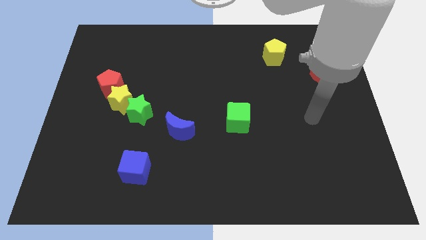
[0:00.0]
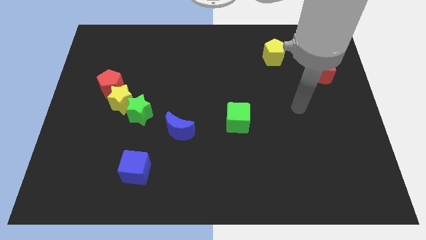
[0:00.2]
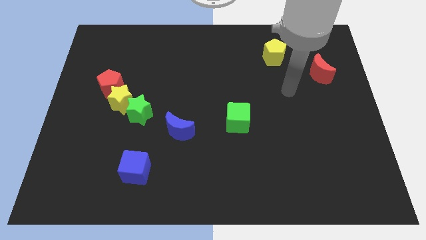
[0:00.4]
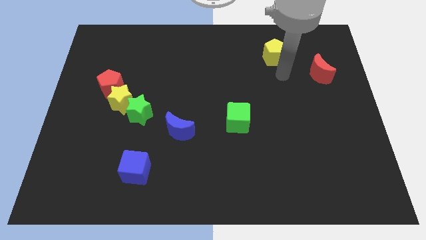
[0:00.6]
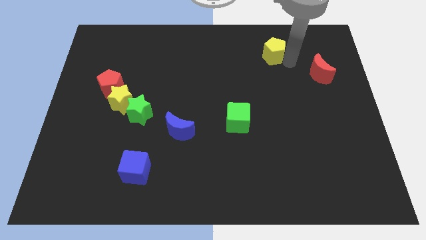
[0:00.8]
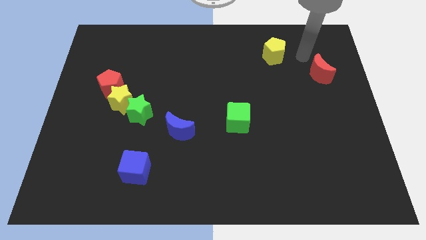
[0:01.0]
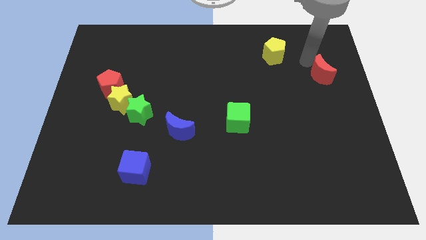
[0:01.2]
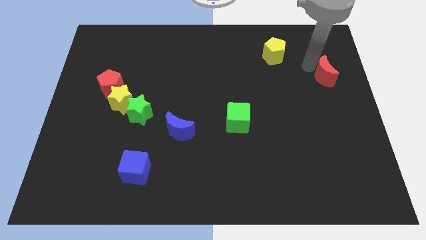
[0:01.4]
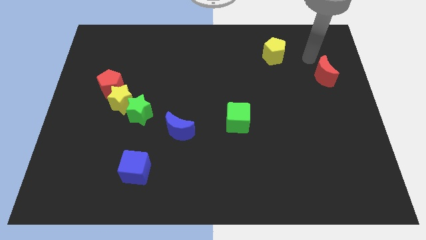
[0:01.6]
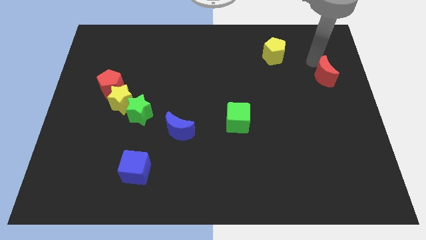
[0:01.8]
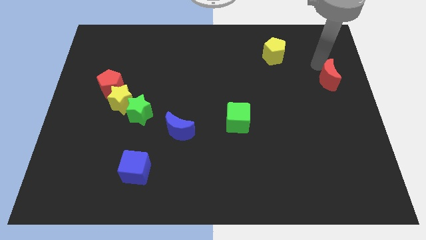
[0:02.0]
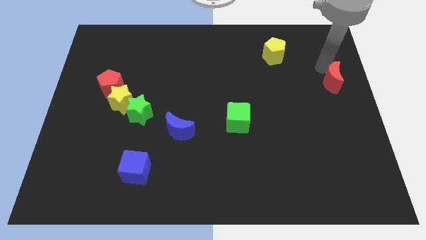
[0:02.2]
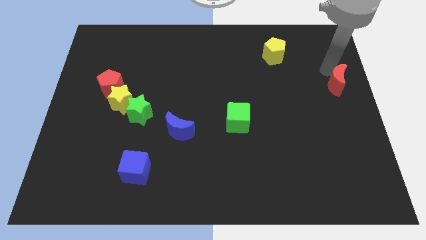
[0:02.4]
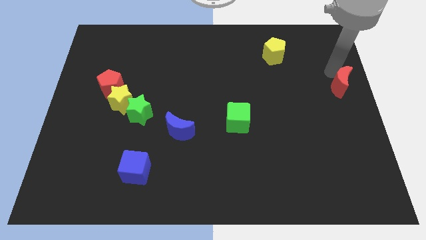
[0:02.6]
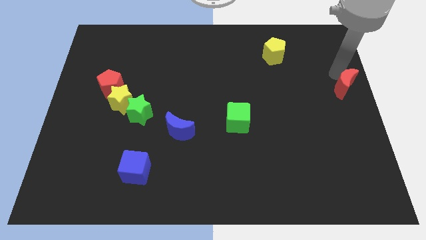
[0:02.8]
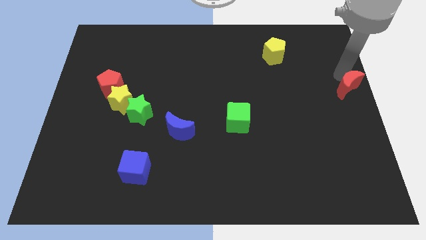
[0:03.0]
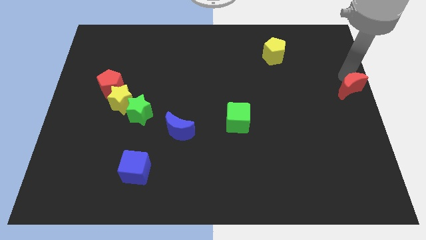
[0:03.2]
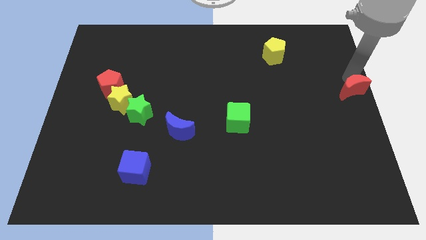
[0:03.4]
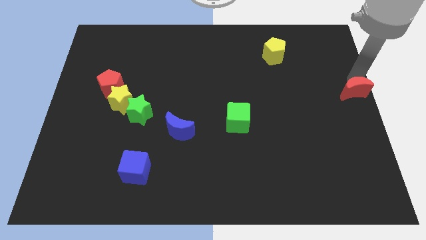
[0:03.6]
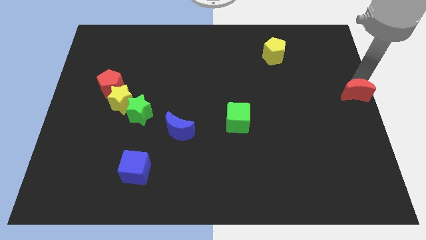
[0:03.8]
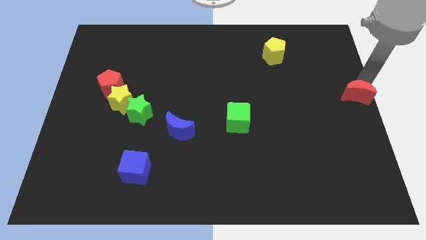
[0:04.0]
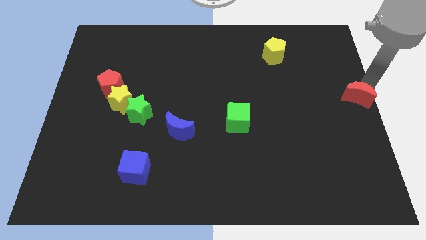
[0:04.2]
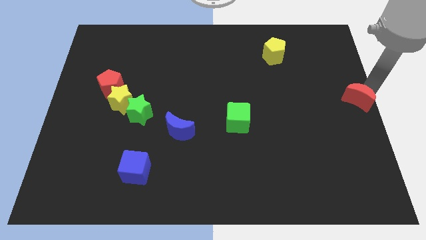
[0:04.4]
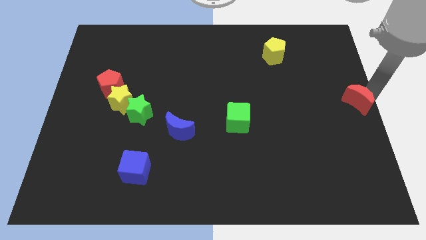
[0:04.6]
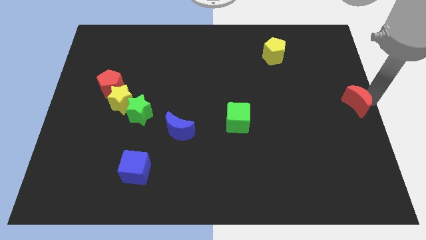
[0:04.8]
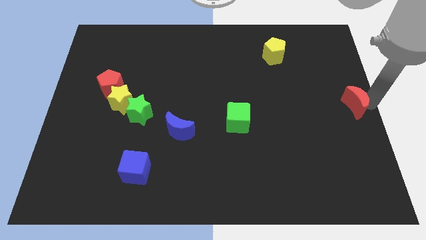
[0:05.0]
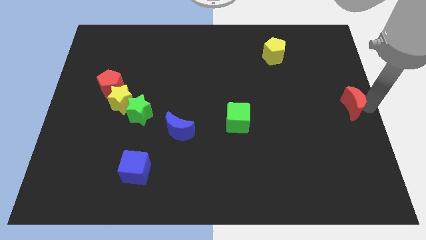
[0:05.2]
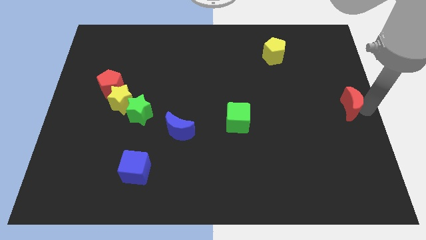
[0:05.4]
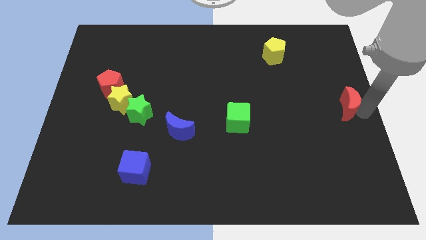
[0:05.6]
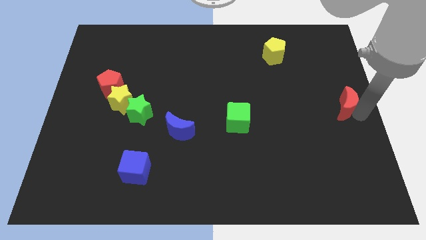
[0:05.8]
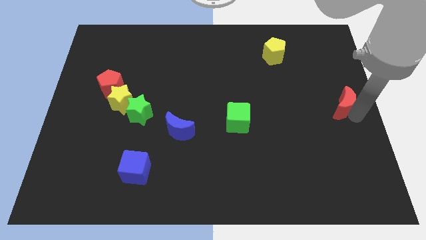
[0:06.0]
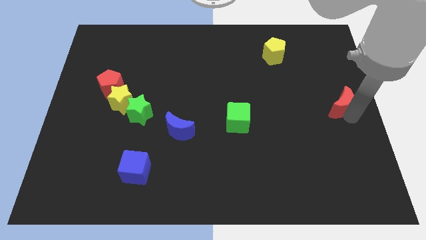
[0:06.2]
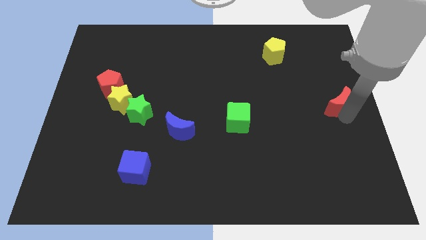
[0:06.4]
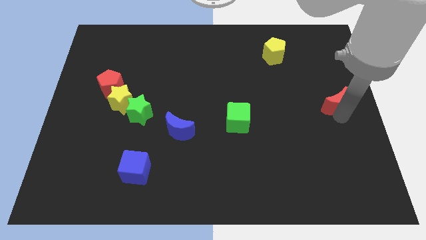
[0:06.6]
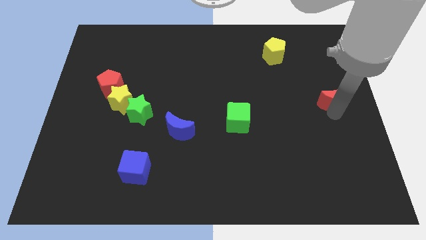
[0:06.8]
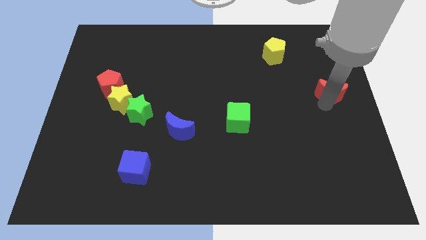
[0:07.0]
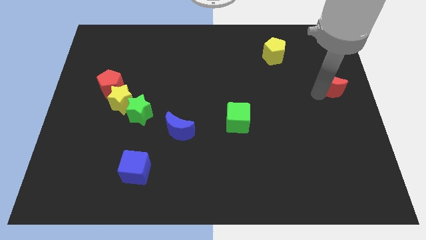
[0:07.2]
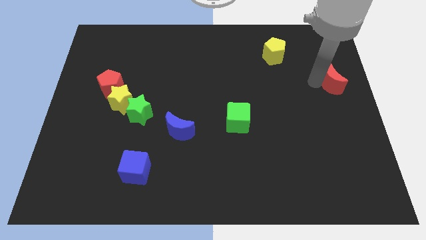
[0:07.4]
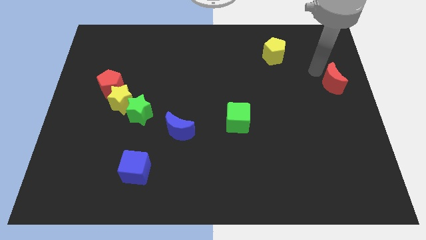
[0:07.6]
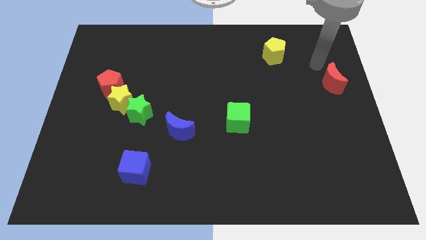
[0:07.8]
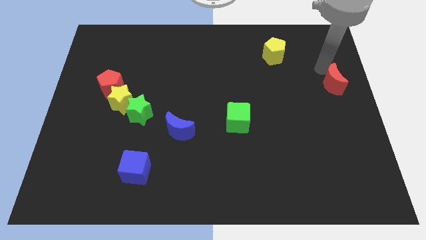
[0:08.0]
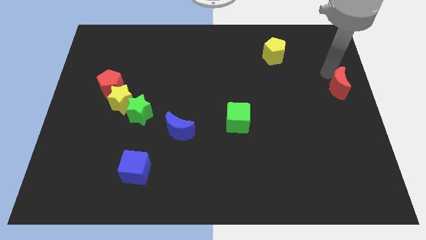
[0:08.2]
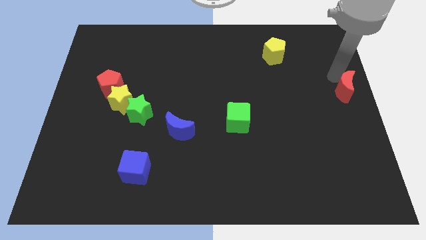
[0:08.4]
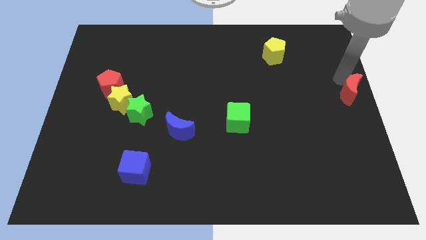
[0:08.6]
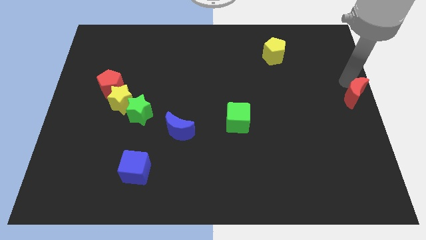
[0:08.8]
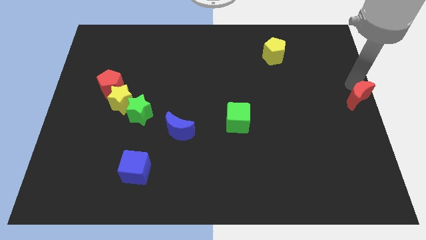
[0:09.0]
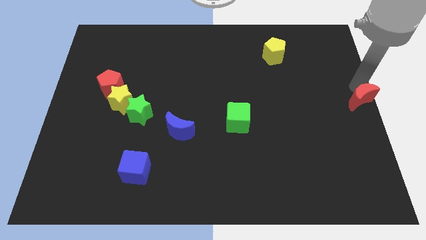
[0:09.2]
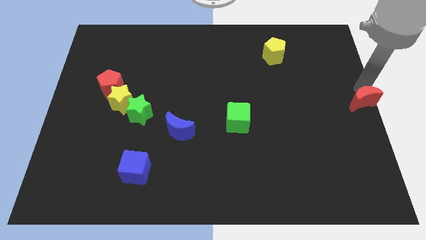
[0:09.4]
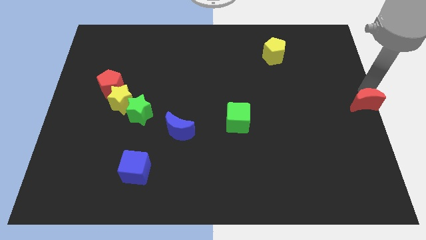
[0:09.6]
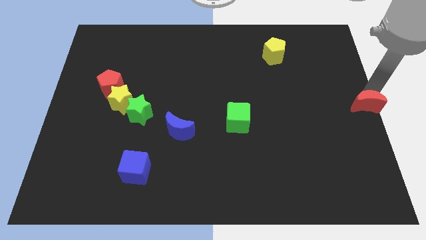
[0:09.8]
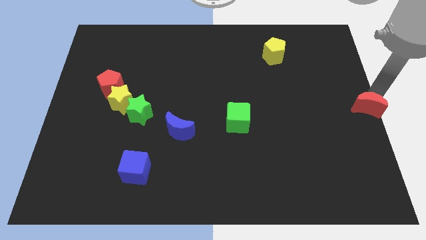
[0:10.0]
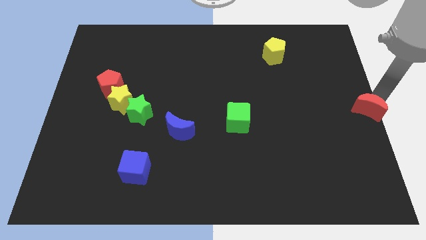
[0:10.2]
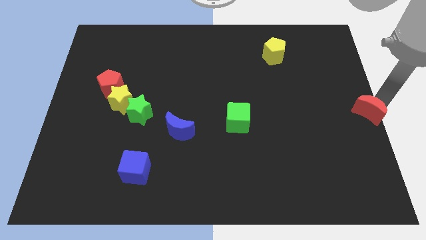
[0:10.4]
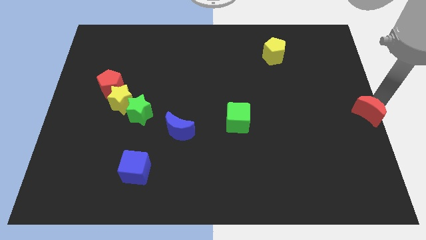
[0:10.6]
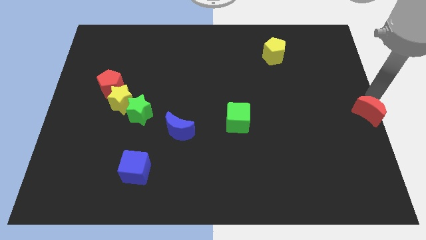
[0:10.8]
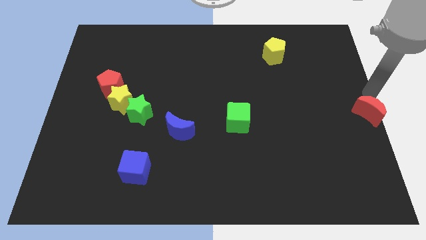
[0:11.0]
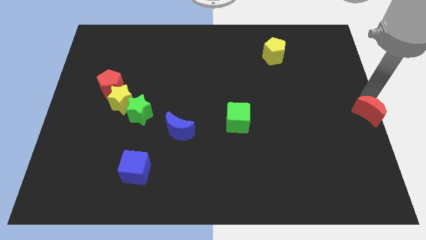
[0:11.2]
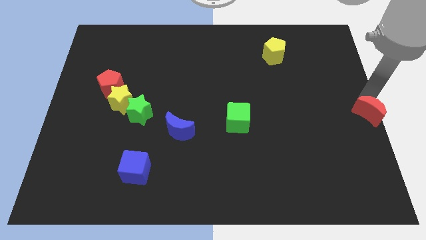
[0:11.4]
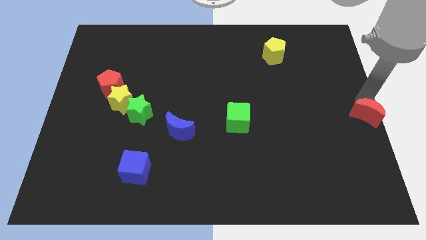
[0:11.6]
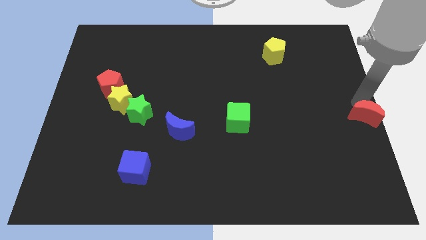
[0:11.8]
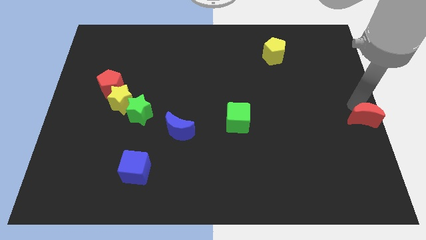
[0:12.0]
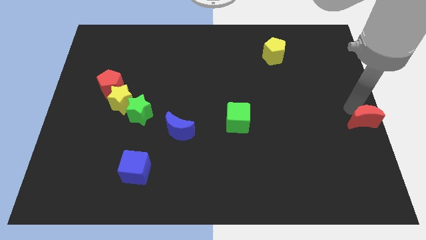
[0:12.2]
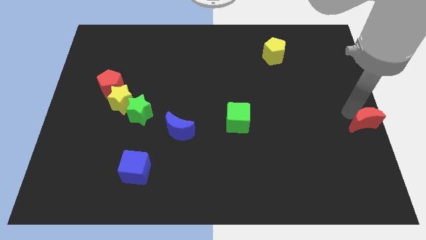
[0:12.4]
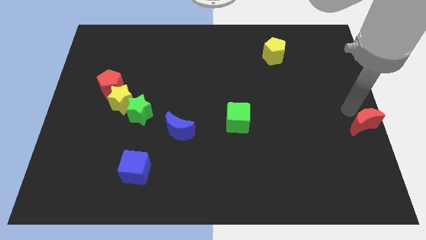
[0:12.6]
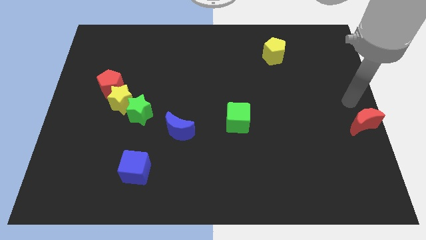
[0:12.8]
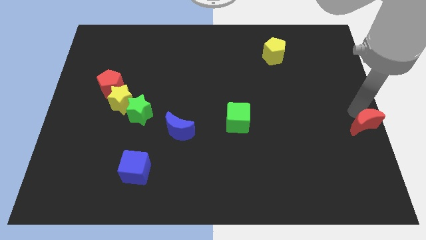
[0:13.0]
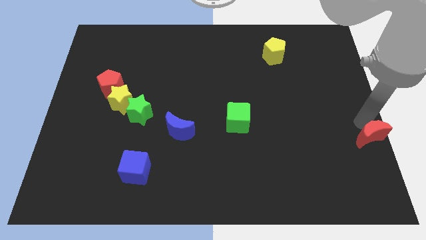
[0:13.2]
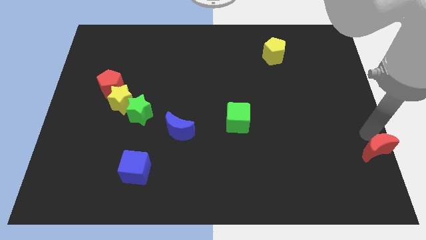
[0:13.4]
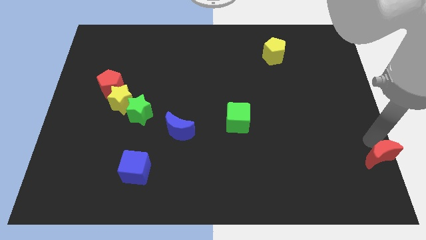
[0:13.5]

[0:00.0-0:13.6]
move the red moon to the bottom right of the board
